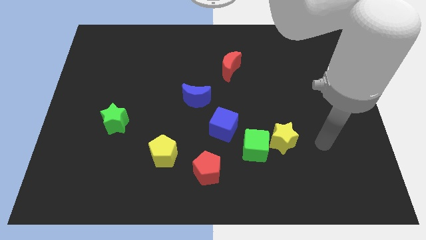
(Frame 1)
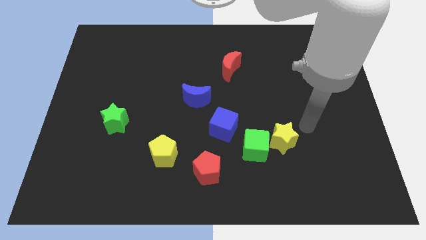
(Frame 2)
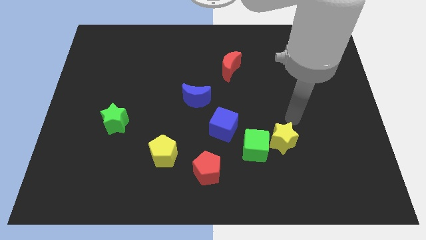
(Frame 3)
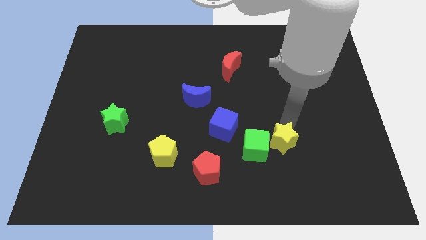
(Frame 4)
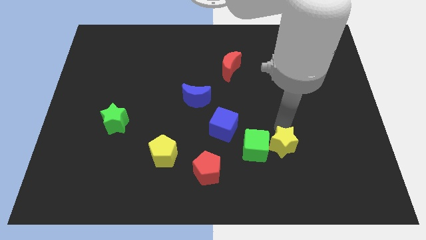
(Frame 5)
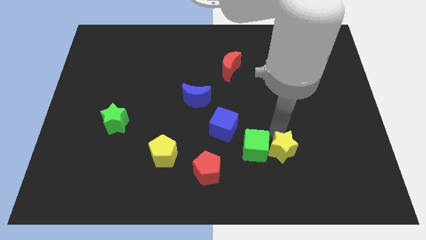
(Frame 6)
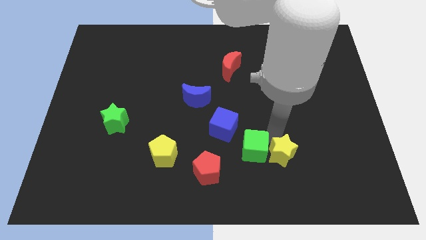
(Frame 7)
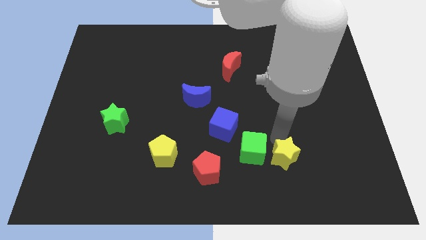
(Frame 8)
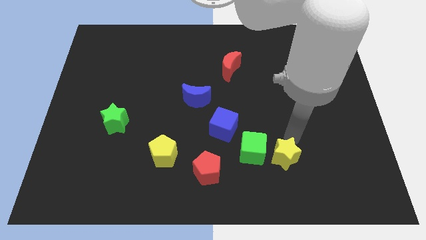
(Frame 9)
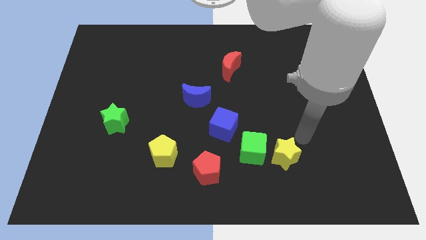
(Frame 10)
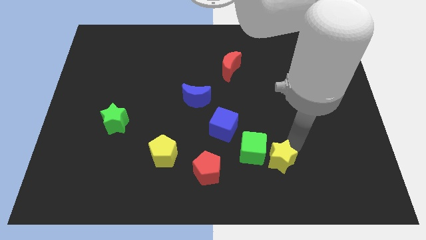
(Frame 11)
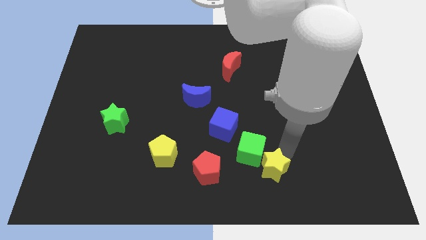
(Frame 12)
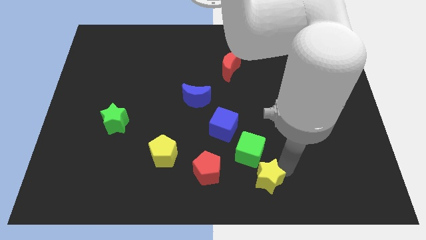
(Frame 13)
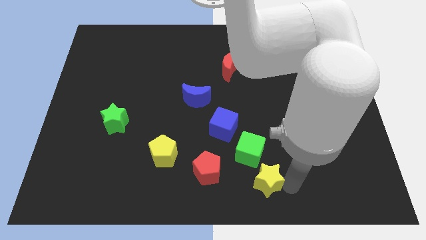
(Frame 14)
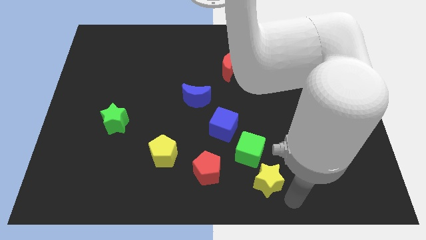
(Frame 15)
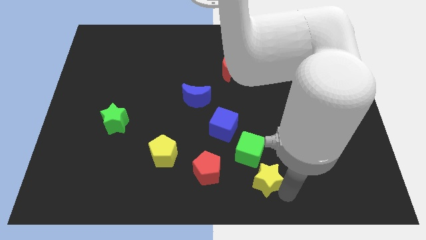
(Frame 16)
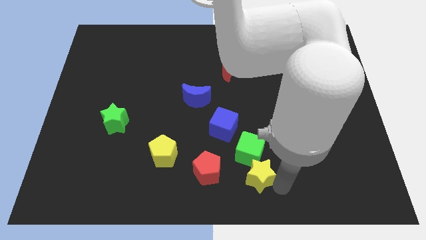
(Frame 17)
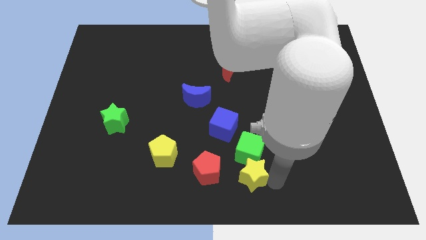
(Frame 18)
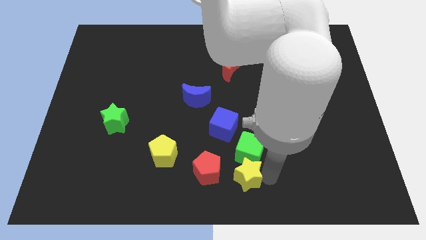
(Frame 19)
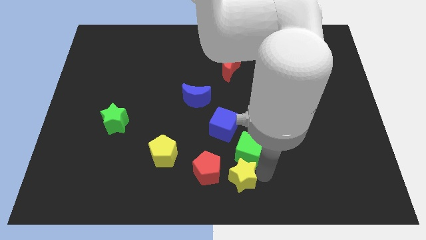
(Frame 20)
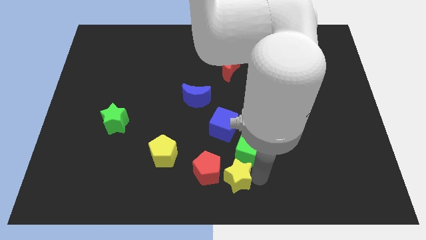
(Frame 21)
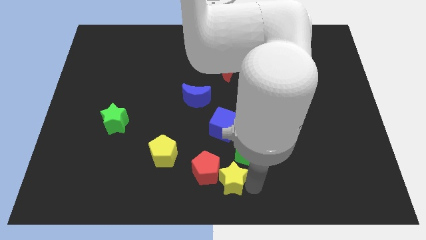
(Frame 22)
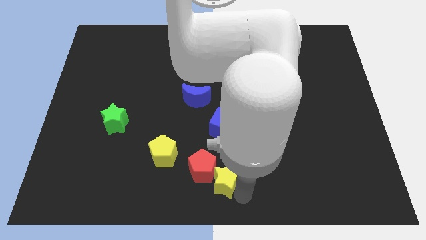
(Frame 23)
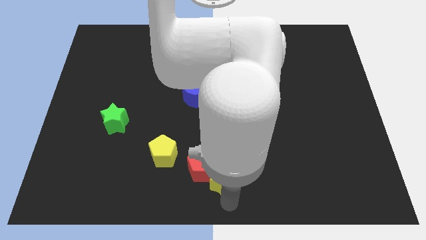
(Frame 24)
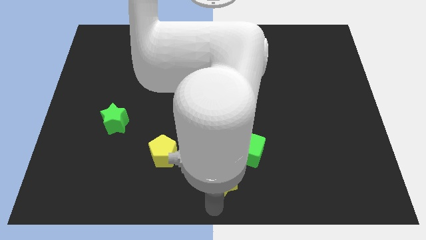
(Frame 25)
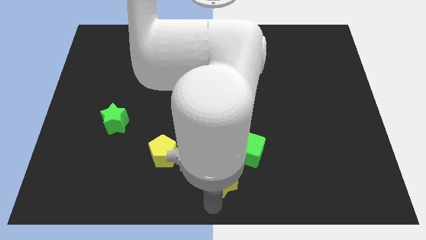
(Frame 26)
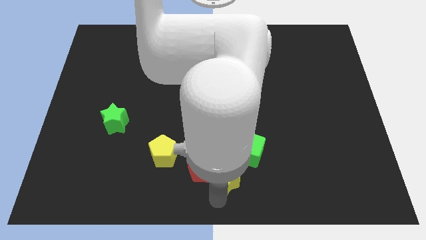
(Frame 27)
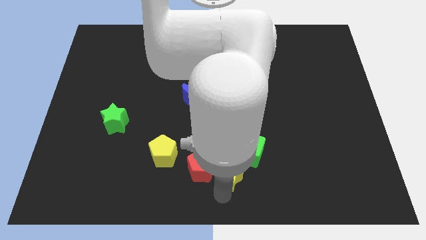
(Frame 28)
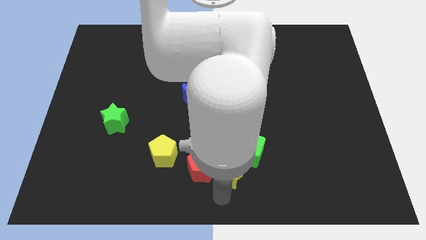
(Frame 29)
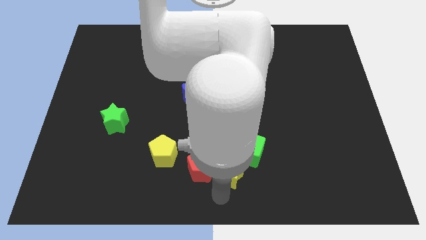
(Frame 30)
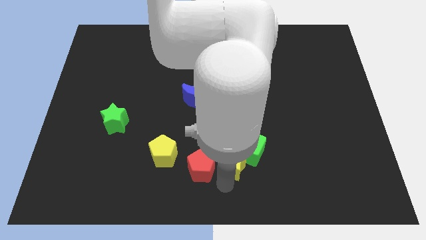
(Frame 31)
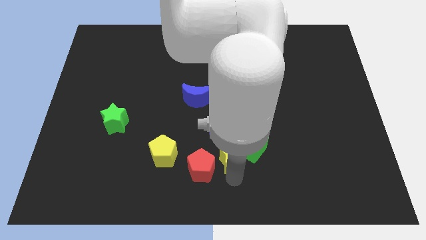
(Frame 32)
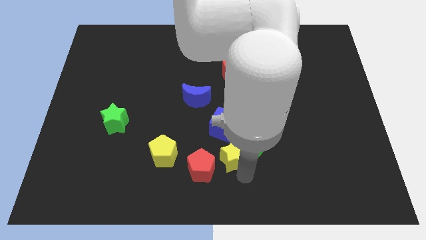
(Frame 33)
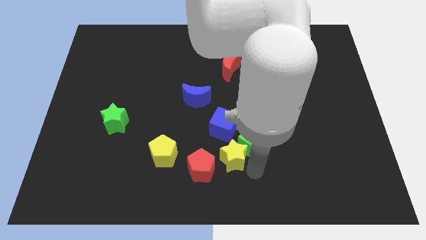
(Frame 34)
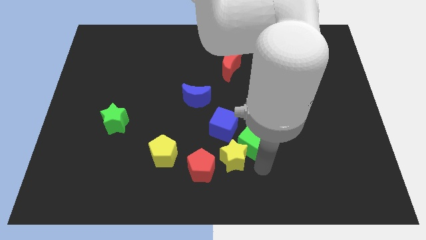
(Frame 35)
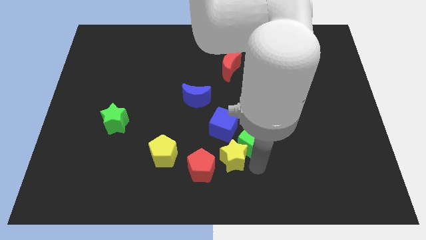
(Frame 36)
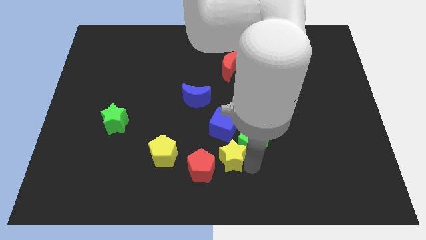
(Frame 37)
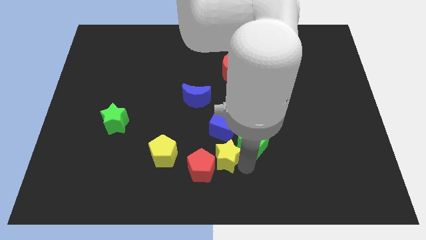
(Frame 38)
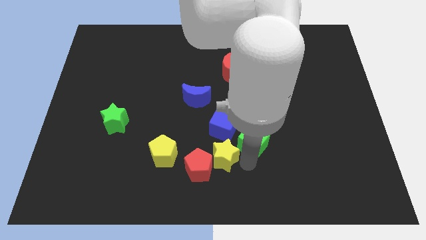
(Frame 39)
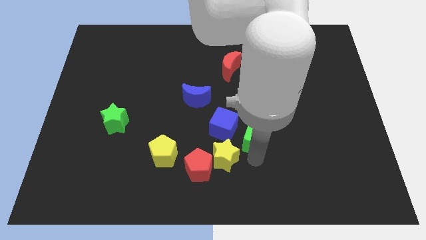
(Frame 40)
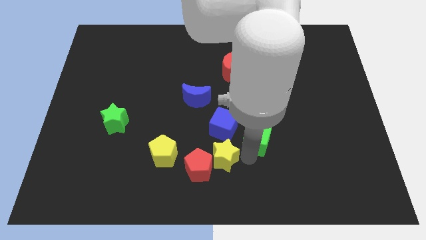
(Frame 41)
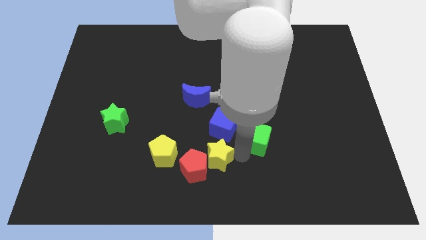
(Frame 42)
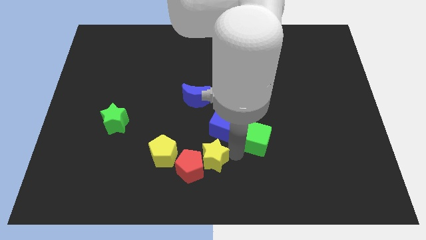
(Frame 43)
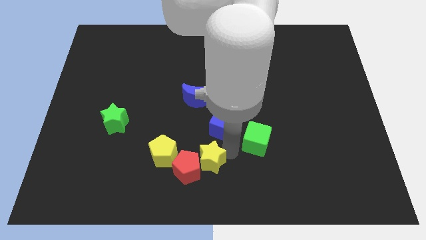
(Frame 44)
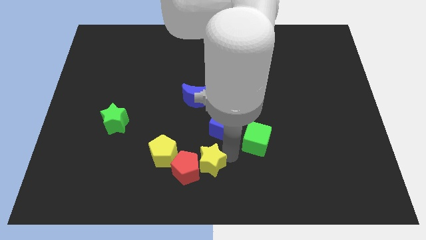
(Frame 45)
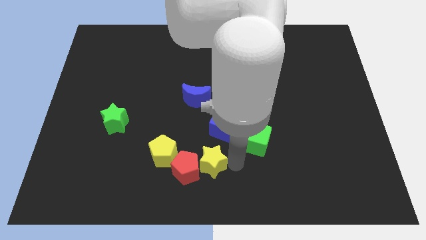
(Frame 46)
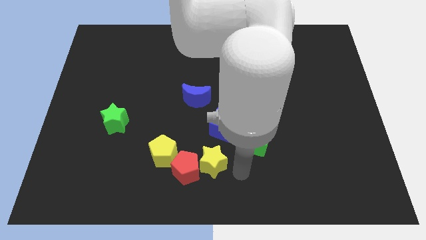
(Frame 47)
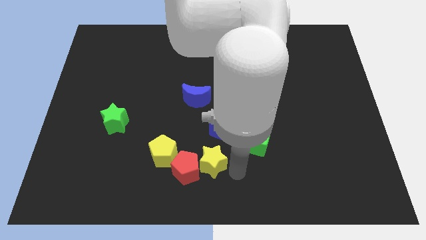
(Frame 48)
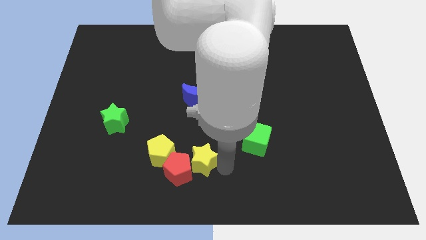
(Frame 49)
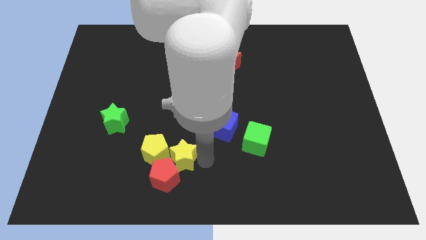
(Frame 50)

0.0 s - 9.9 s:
slide the yellow star next to the yellow pentagon

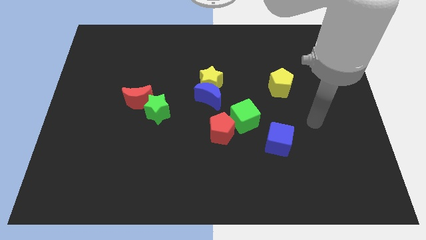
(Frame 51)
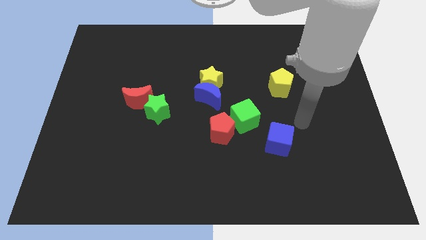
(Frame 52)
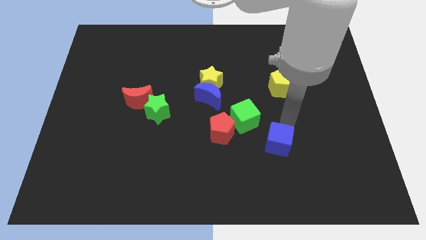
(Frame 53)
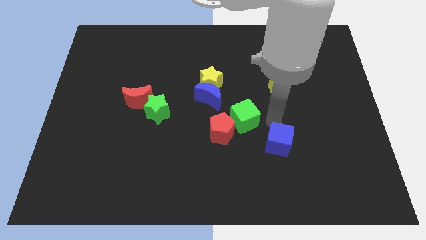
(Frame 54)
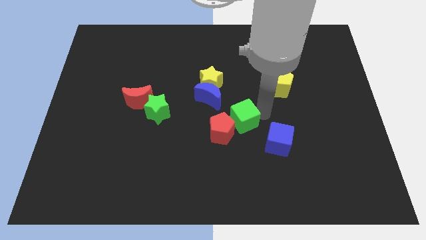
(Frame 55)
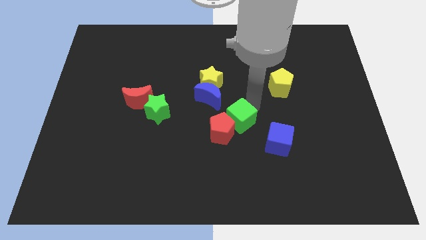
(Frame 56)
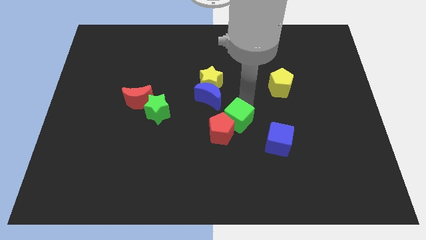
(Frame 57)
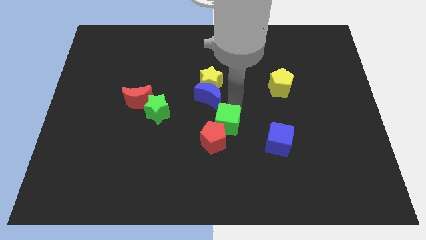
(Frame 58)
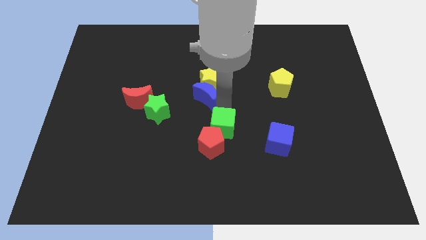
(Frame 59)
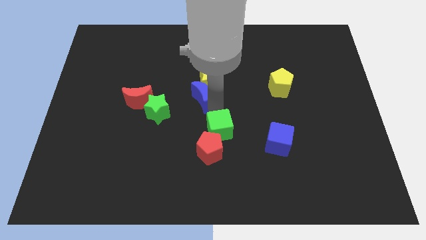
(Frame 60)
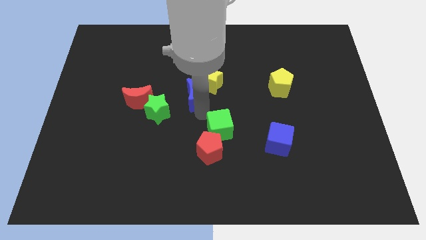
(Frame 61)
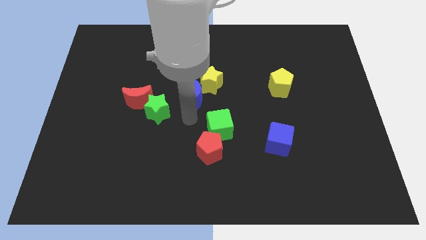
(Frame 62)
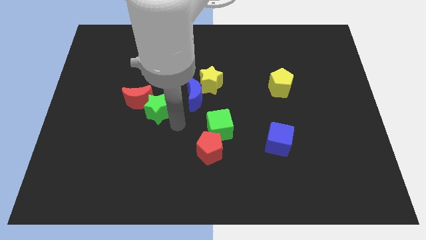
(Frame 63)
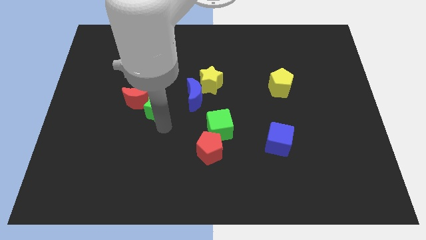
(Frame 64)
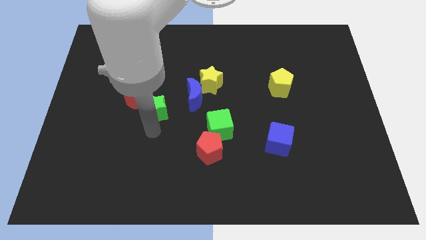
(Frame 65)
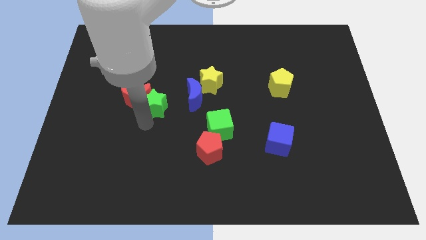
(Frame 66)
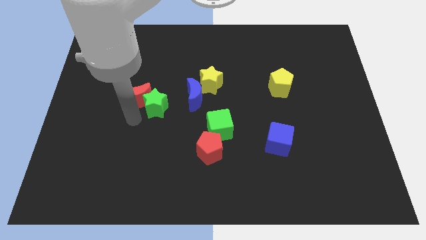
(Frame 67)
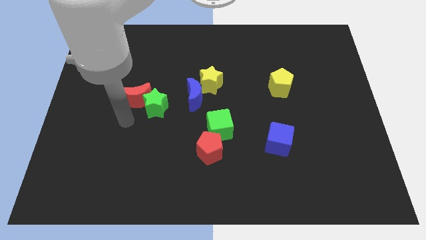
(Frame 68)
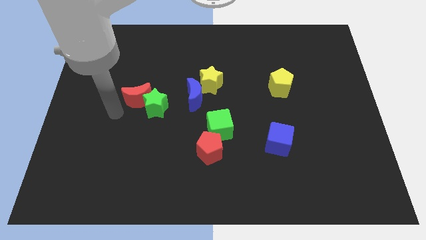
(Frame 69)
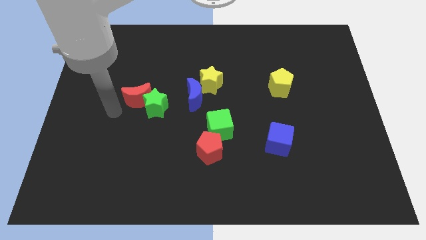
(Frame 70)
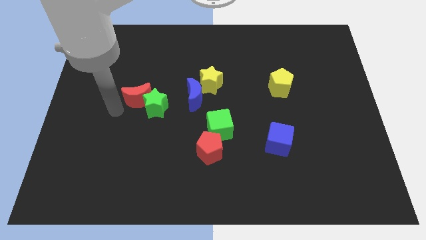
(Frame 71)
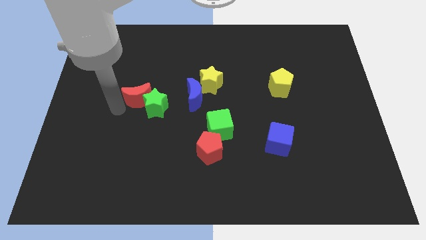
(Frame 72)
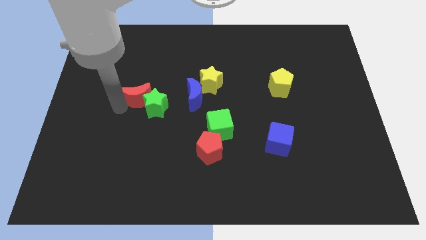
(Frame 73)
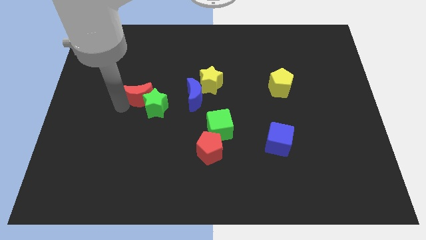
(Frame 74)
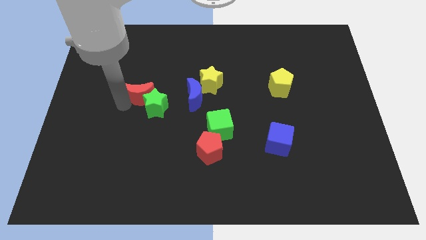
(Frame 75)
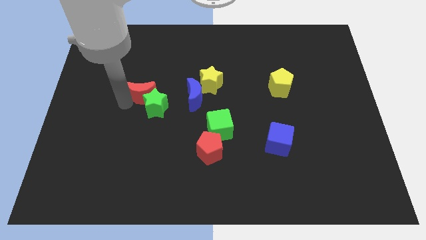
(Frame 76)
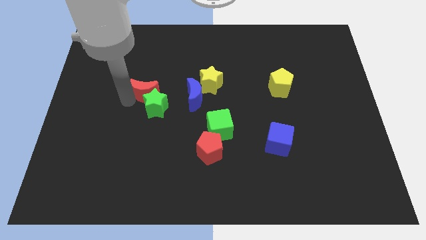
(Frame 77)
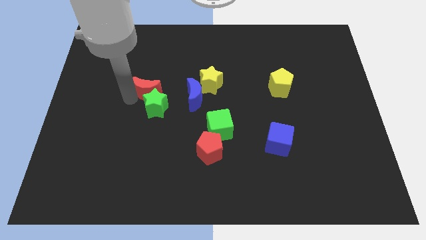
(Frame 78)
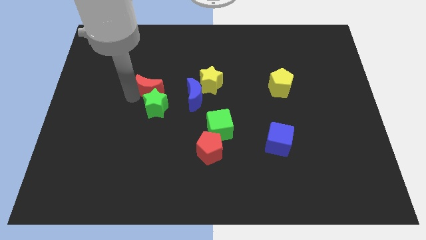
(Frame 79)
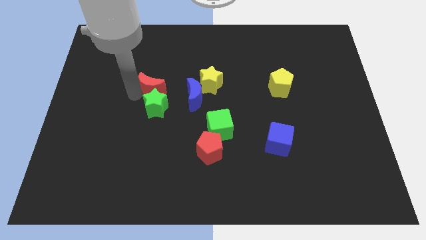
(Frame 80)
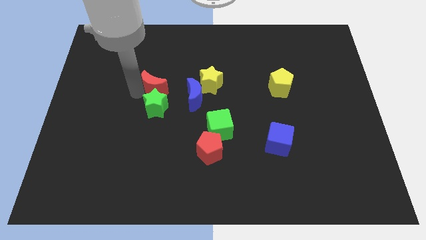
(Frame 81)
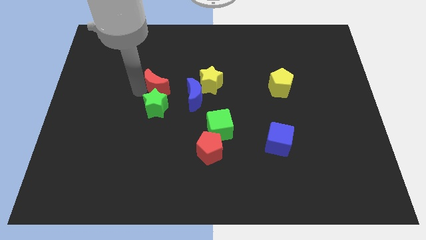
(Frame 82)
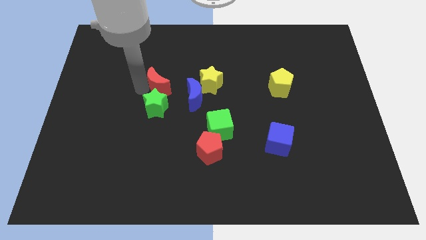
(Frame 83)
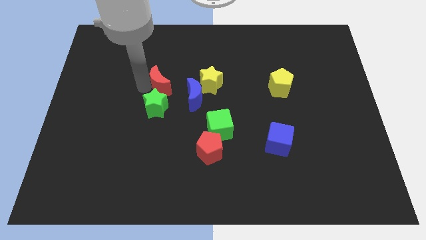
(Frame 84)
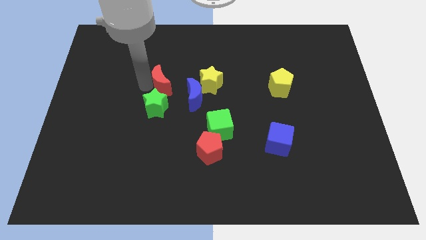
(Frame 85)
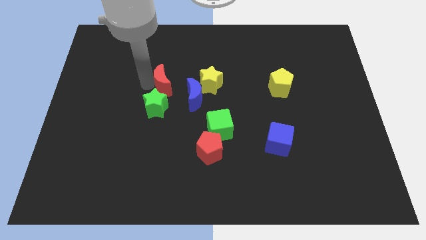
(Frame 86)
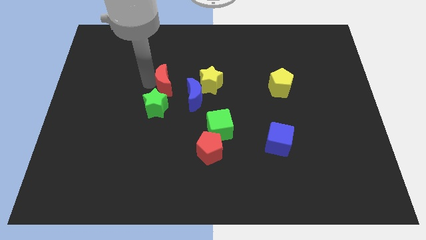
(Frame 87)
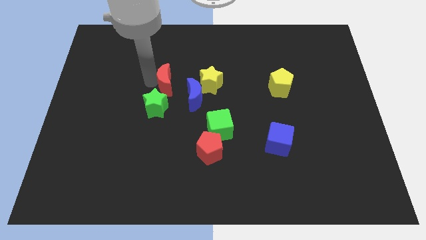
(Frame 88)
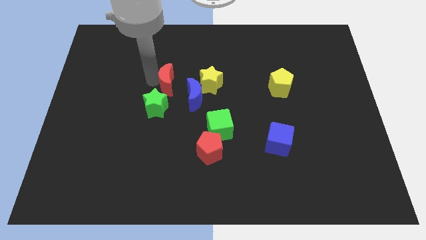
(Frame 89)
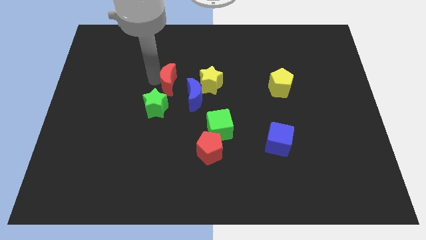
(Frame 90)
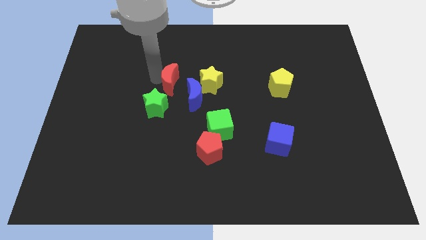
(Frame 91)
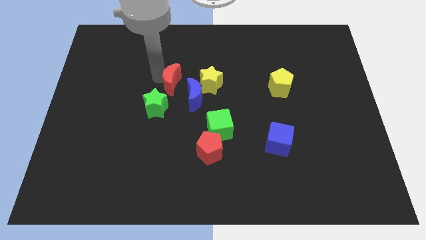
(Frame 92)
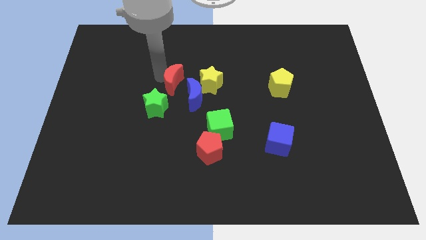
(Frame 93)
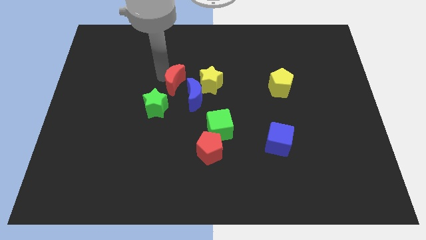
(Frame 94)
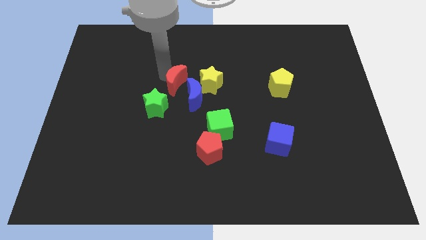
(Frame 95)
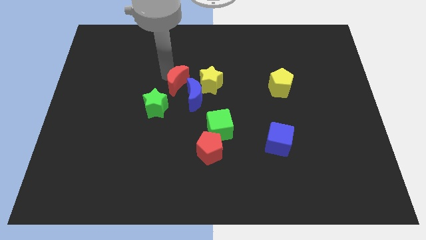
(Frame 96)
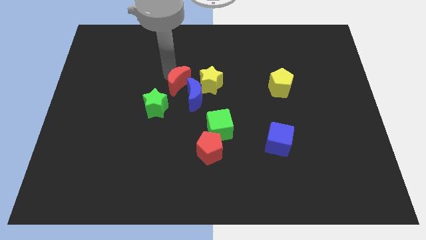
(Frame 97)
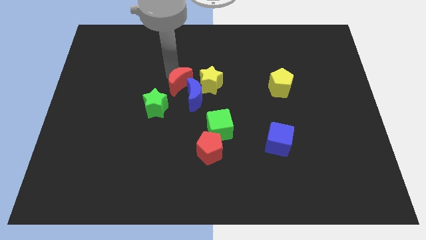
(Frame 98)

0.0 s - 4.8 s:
push the red moon next to the blue moon
